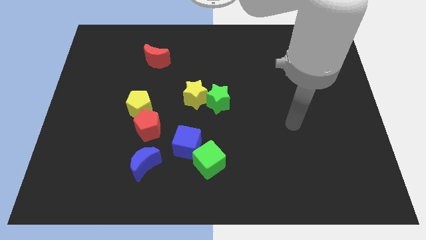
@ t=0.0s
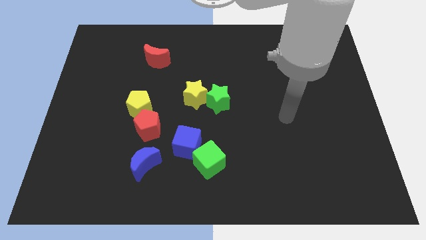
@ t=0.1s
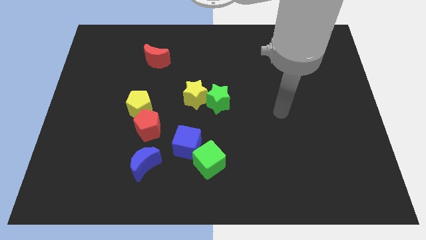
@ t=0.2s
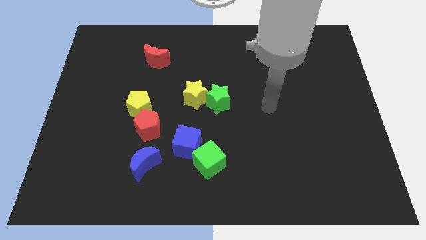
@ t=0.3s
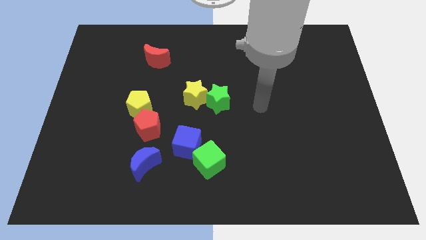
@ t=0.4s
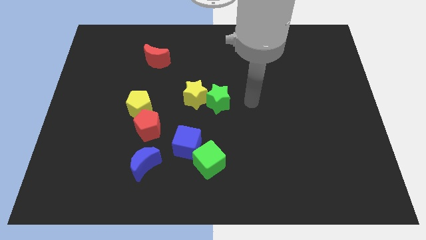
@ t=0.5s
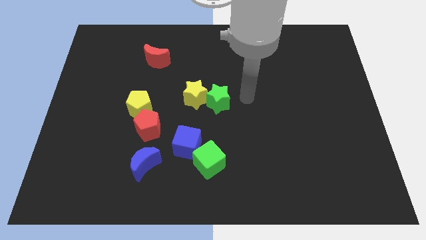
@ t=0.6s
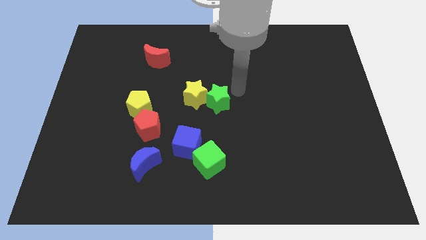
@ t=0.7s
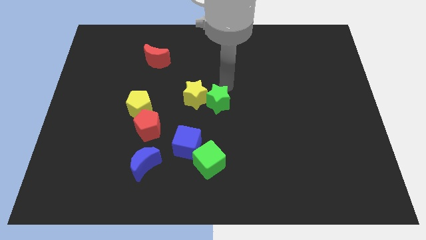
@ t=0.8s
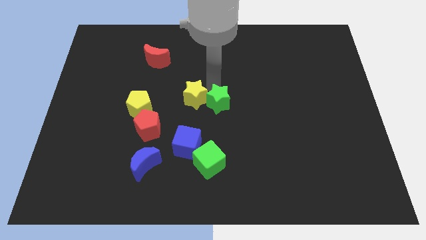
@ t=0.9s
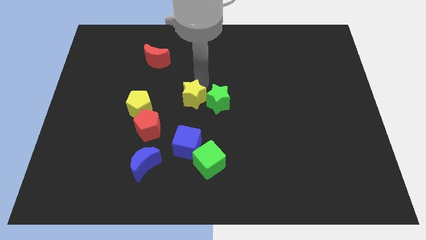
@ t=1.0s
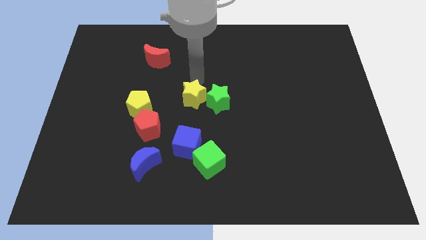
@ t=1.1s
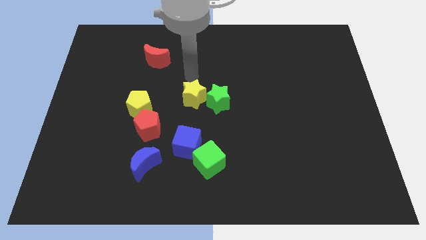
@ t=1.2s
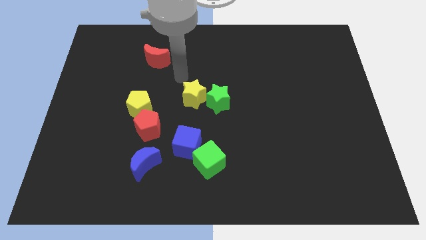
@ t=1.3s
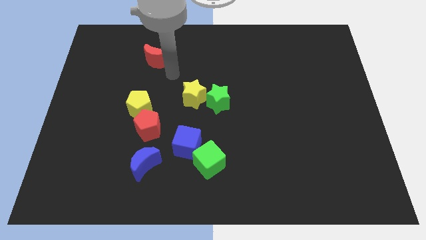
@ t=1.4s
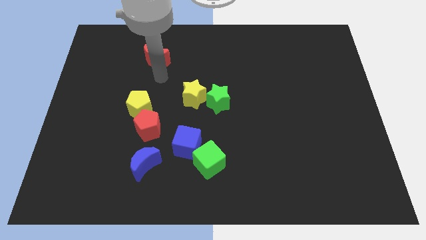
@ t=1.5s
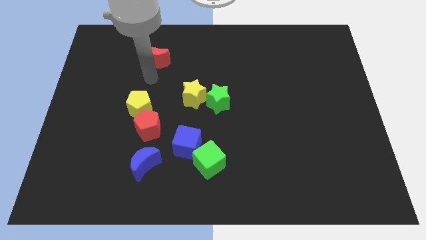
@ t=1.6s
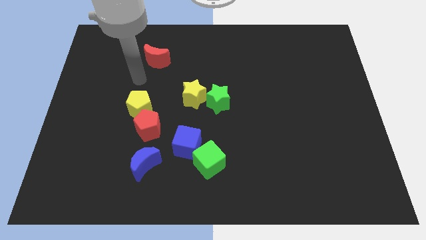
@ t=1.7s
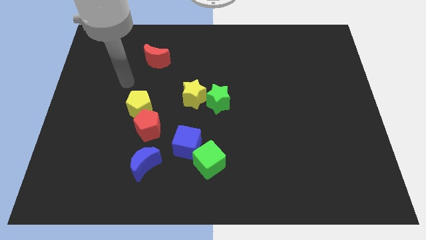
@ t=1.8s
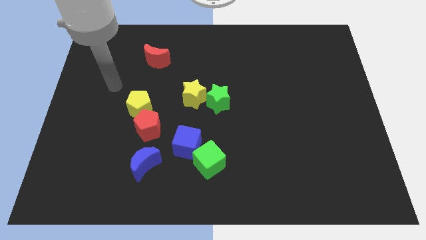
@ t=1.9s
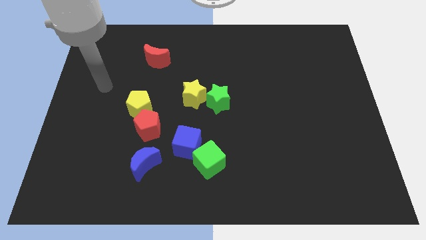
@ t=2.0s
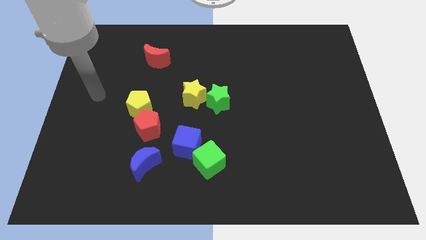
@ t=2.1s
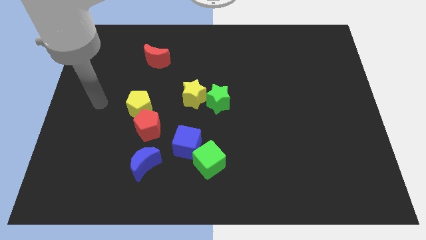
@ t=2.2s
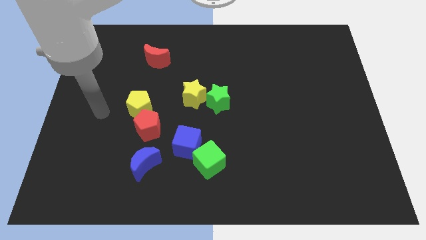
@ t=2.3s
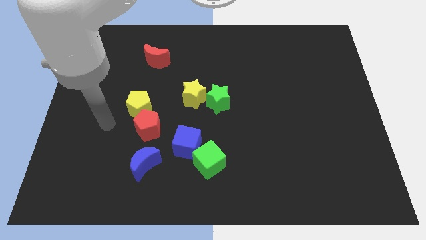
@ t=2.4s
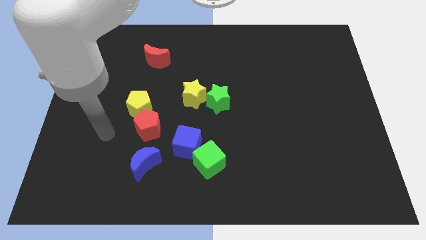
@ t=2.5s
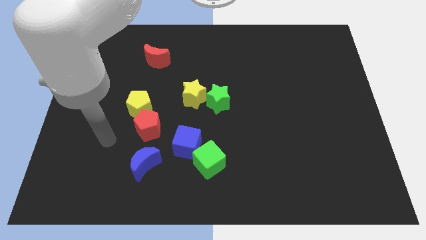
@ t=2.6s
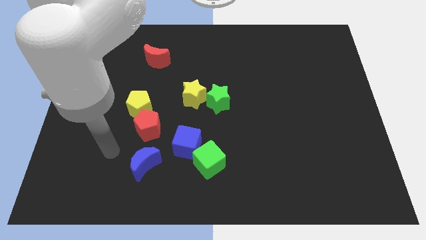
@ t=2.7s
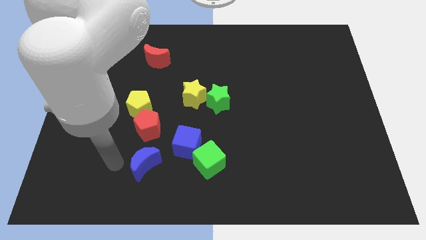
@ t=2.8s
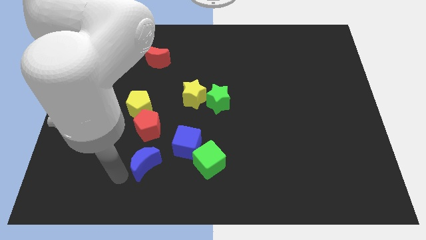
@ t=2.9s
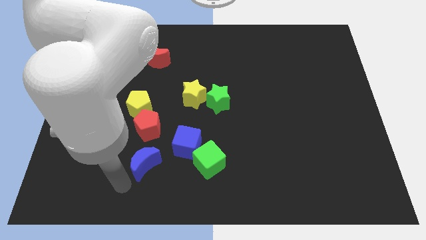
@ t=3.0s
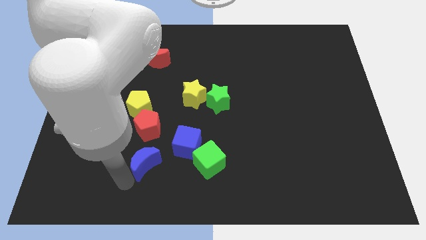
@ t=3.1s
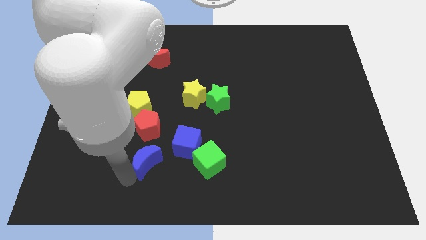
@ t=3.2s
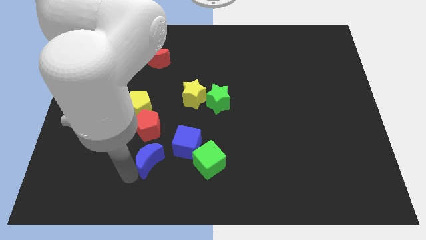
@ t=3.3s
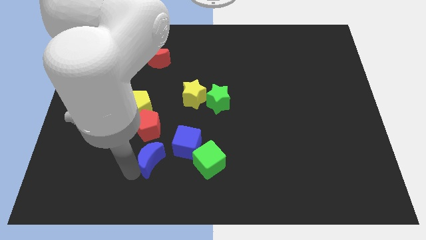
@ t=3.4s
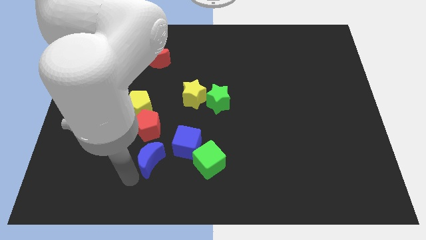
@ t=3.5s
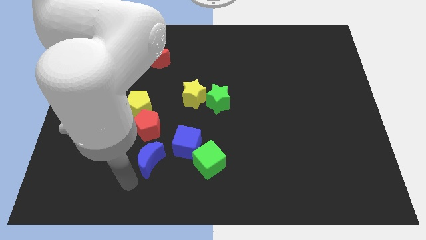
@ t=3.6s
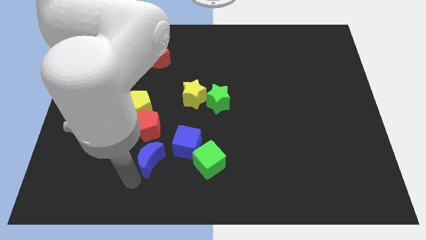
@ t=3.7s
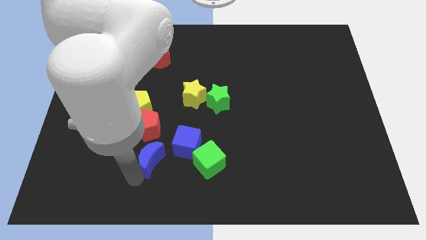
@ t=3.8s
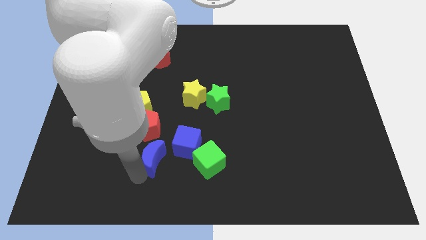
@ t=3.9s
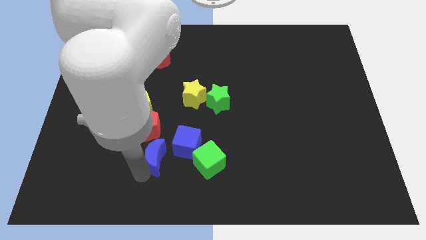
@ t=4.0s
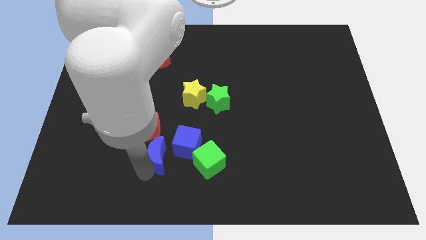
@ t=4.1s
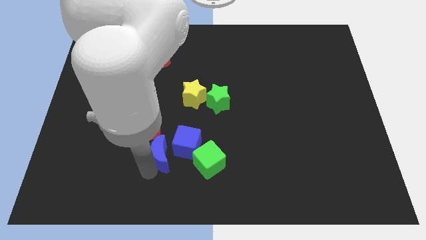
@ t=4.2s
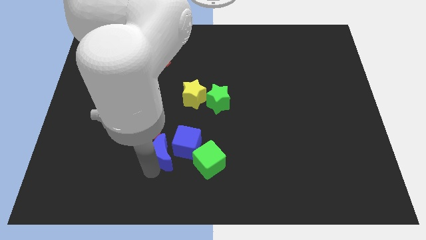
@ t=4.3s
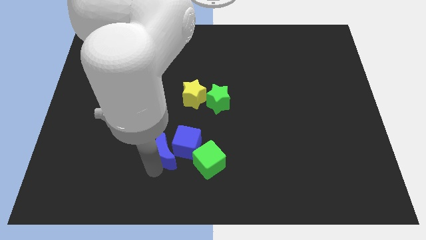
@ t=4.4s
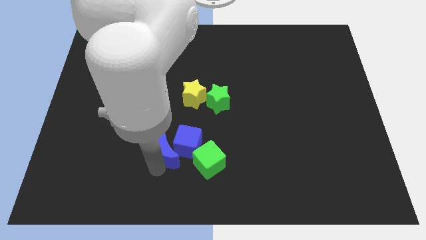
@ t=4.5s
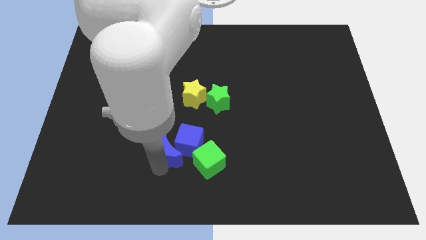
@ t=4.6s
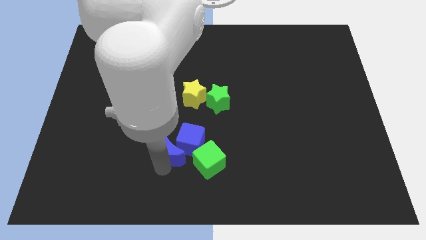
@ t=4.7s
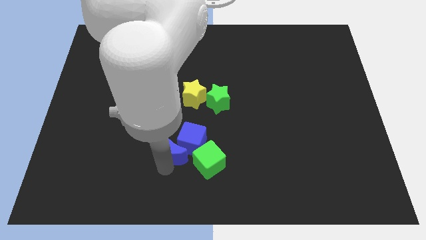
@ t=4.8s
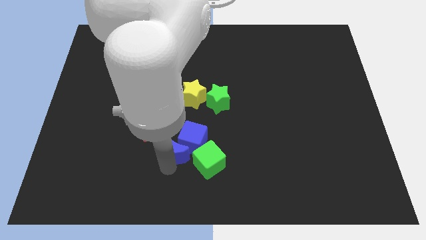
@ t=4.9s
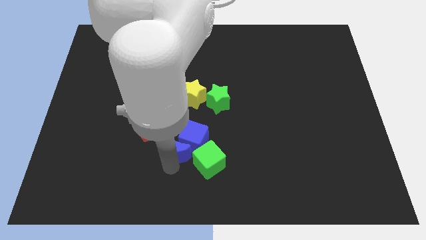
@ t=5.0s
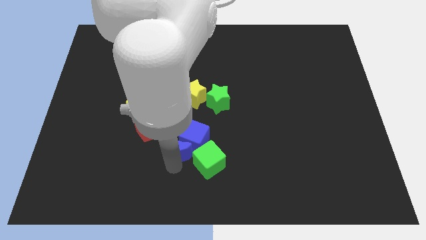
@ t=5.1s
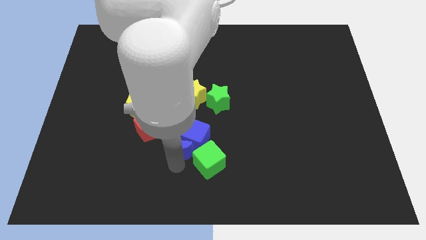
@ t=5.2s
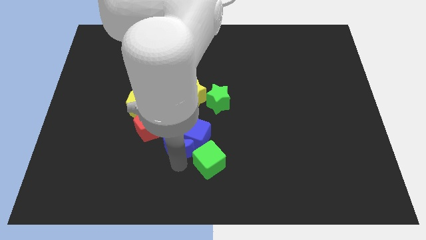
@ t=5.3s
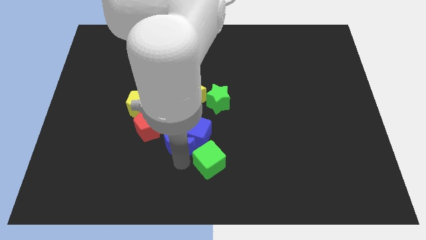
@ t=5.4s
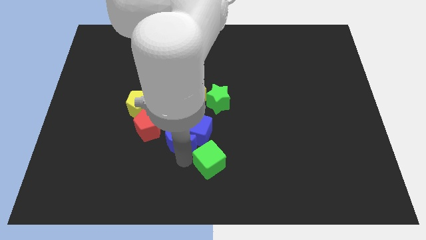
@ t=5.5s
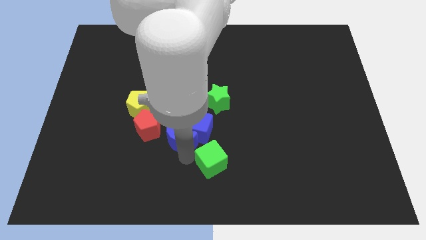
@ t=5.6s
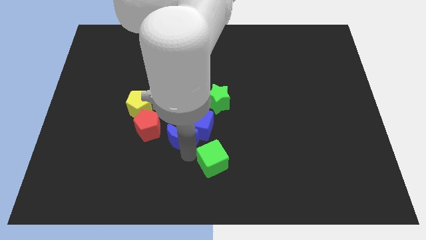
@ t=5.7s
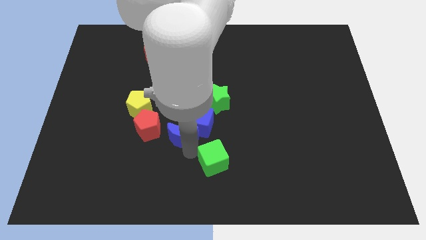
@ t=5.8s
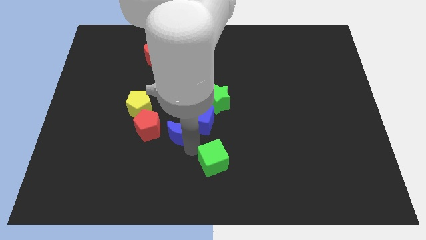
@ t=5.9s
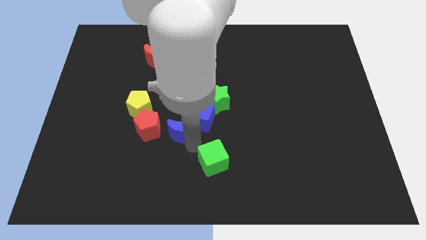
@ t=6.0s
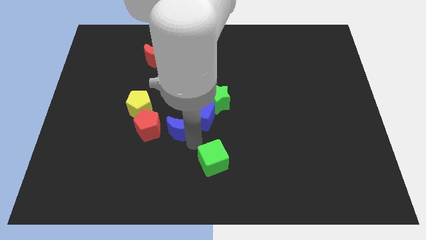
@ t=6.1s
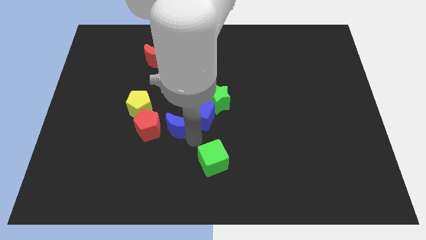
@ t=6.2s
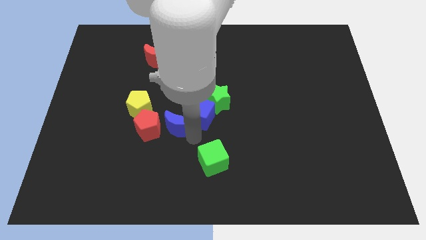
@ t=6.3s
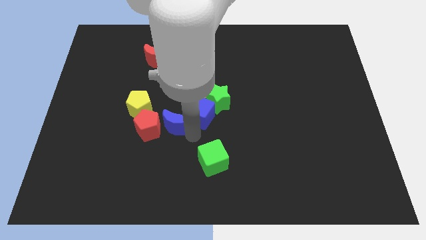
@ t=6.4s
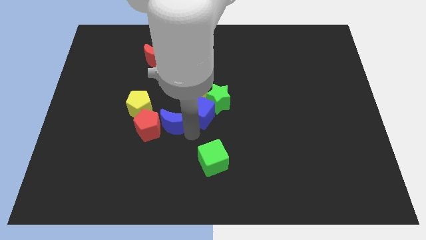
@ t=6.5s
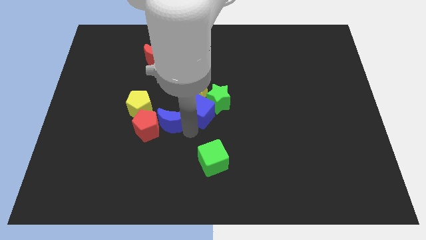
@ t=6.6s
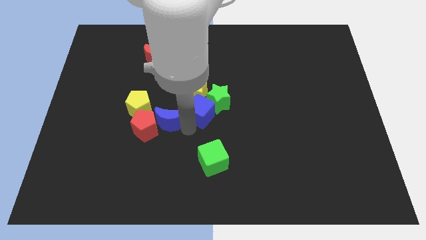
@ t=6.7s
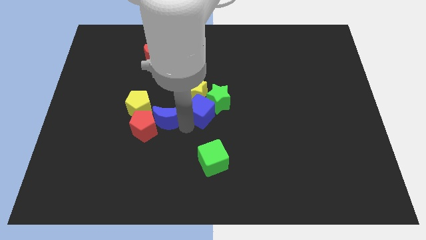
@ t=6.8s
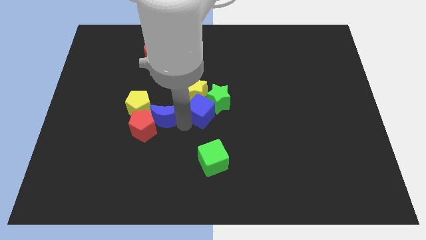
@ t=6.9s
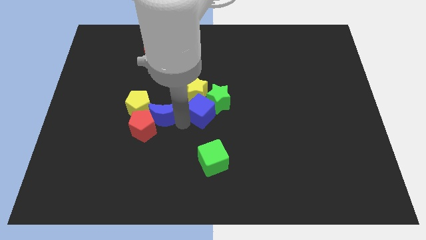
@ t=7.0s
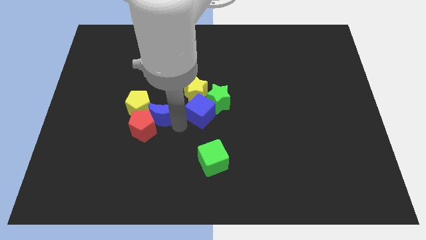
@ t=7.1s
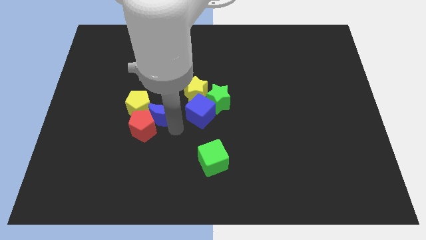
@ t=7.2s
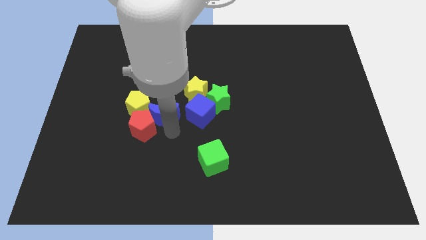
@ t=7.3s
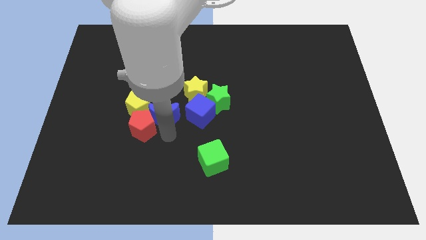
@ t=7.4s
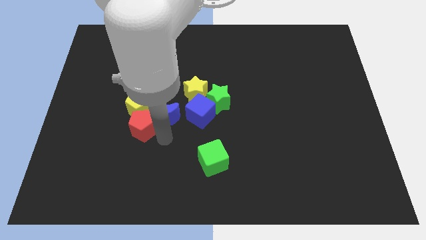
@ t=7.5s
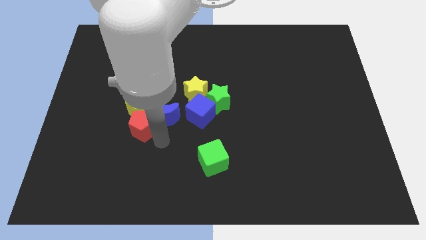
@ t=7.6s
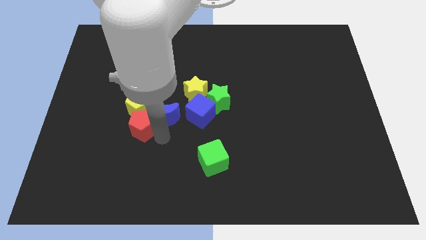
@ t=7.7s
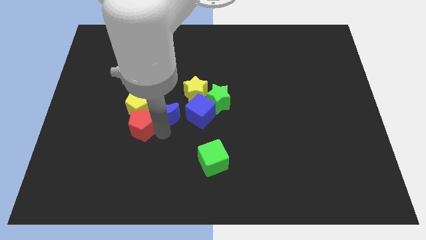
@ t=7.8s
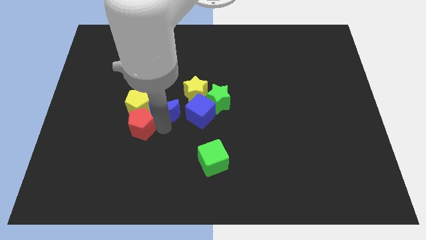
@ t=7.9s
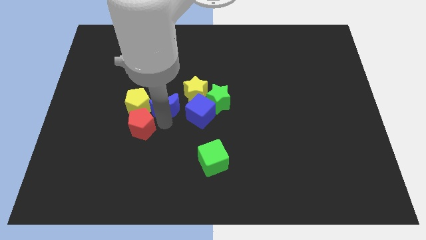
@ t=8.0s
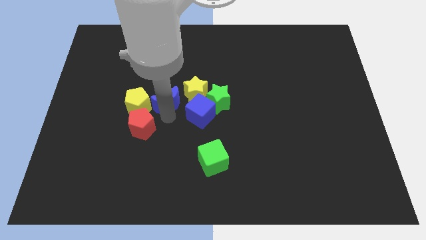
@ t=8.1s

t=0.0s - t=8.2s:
move the blue moon to the left side of the yellow star
